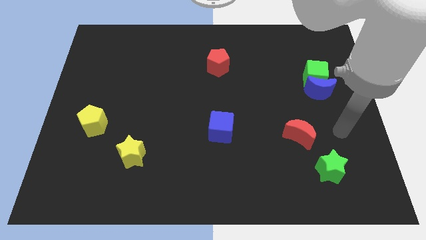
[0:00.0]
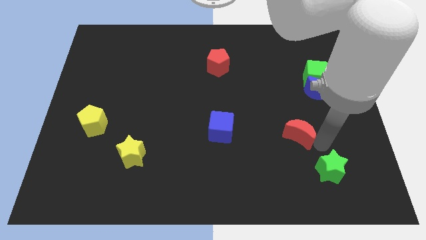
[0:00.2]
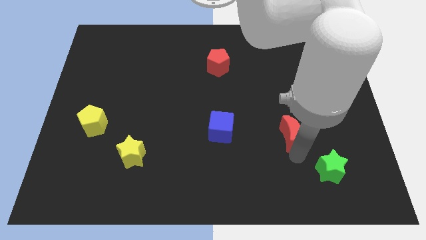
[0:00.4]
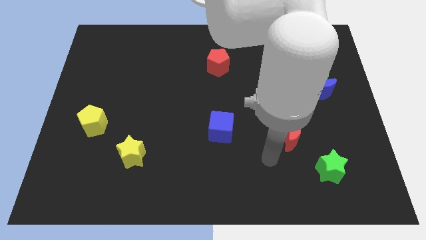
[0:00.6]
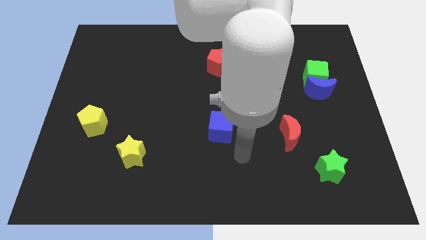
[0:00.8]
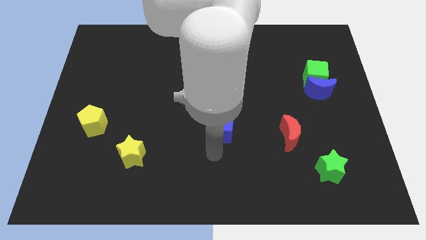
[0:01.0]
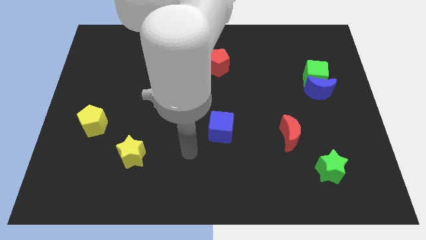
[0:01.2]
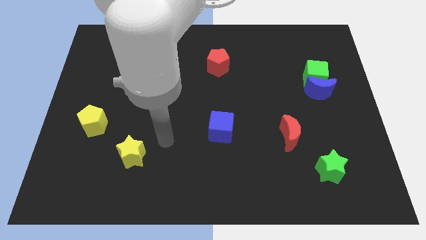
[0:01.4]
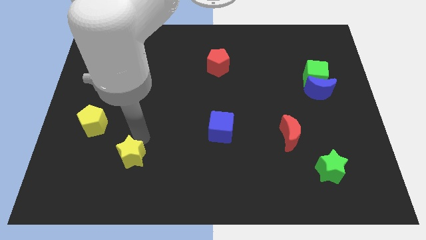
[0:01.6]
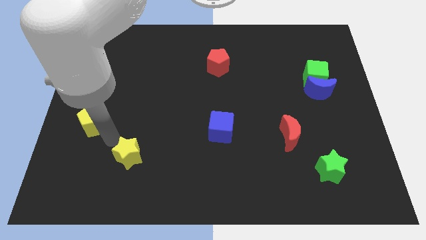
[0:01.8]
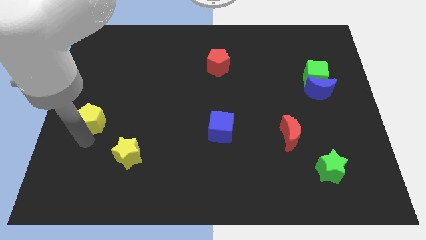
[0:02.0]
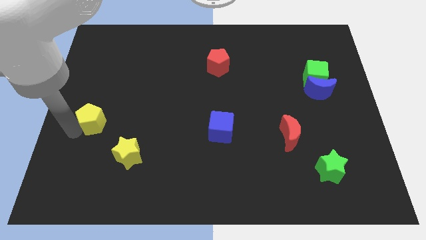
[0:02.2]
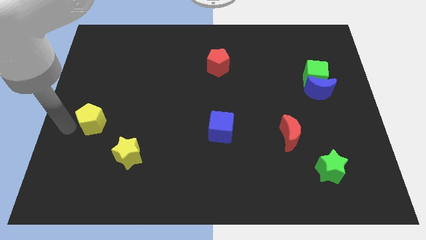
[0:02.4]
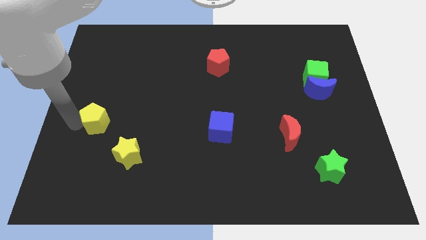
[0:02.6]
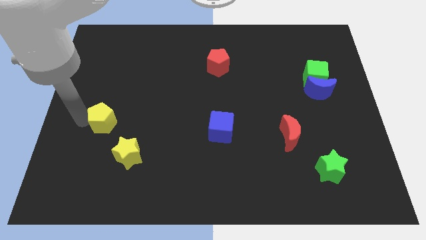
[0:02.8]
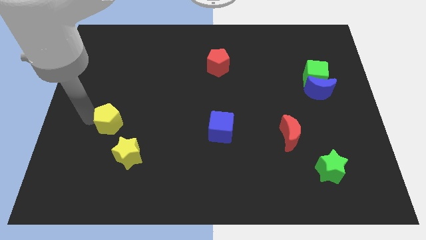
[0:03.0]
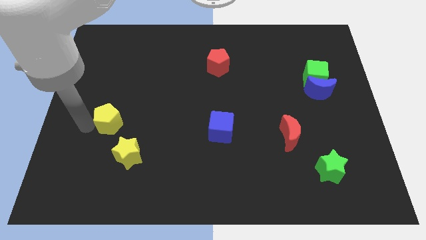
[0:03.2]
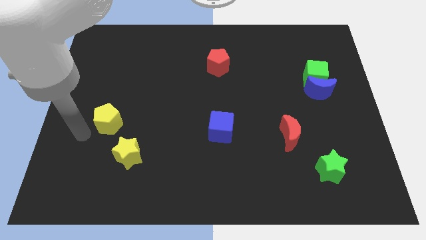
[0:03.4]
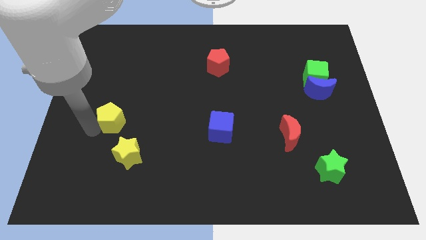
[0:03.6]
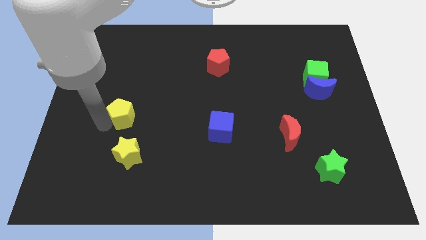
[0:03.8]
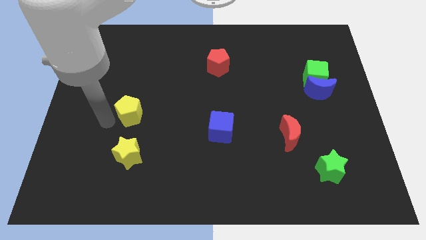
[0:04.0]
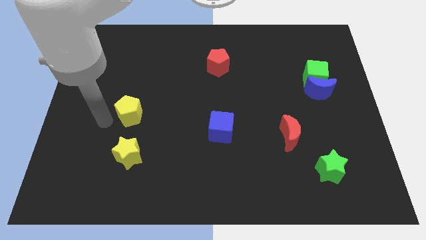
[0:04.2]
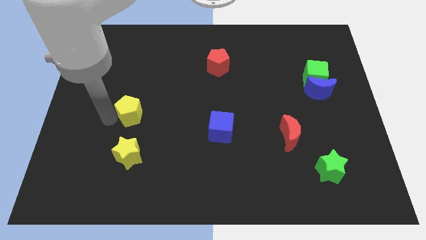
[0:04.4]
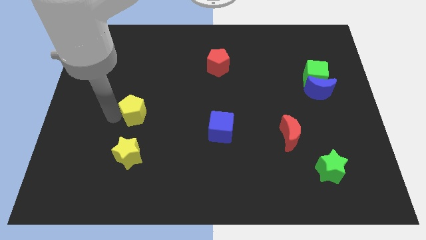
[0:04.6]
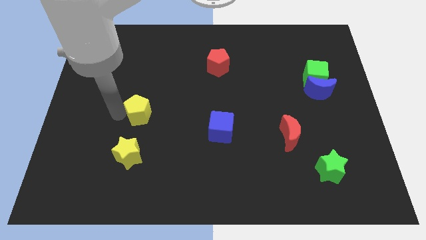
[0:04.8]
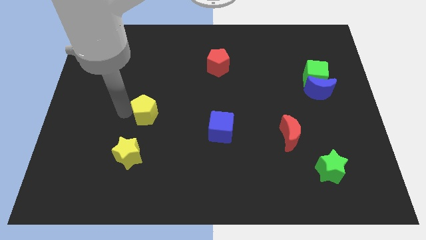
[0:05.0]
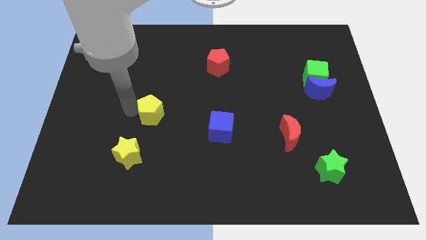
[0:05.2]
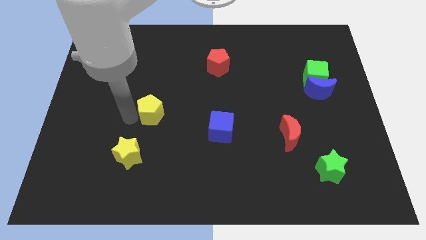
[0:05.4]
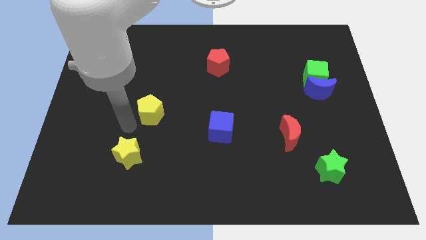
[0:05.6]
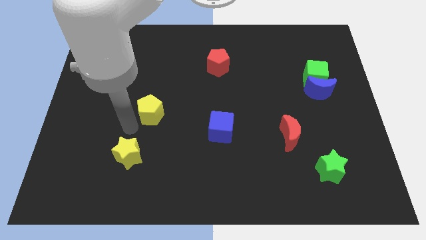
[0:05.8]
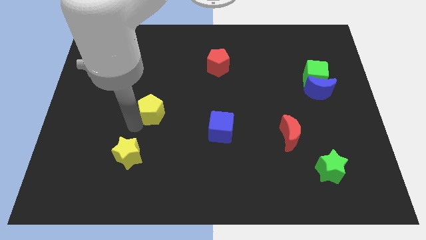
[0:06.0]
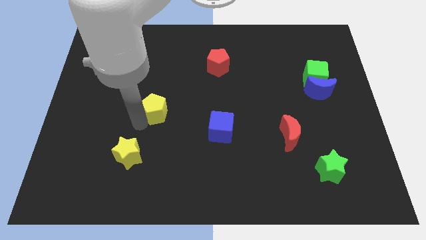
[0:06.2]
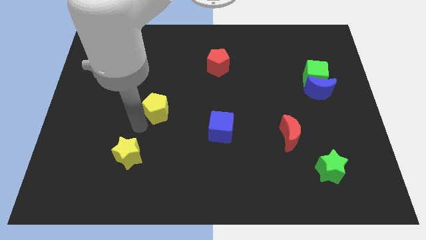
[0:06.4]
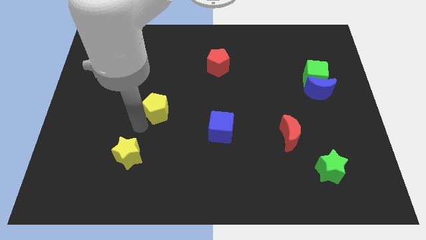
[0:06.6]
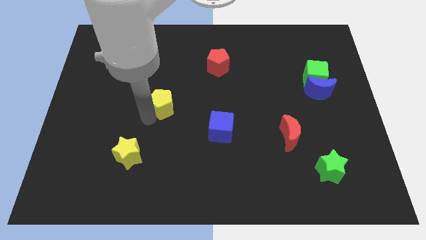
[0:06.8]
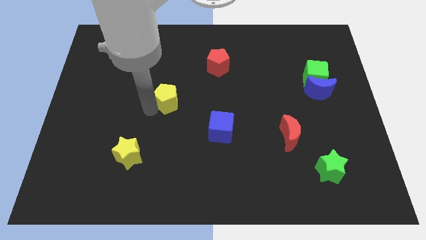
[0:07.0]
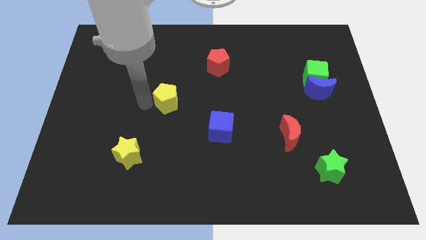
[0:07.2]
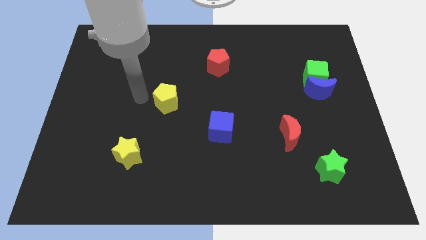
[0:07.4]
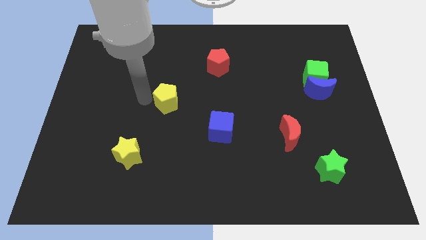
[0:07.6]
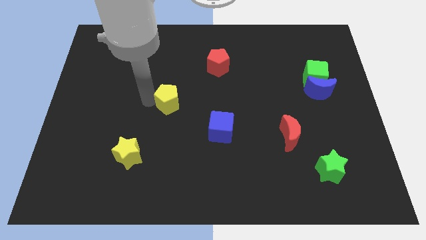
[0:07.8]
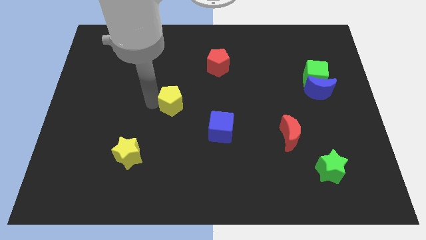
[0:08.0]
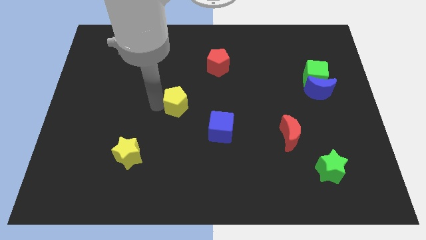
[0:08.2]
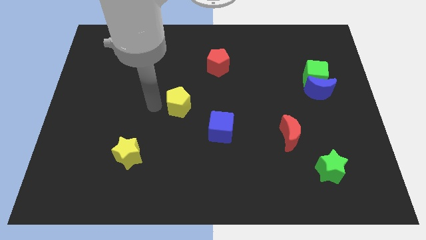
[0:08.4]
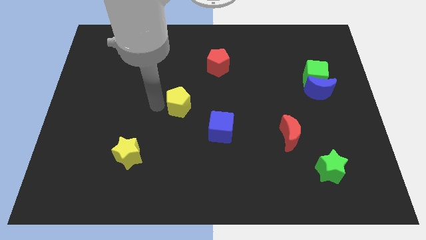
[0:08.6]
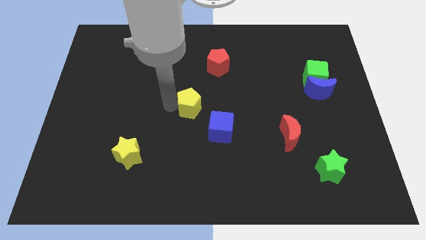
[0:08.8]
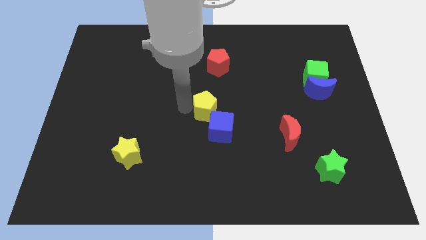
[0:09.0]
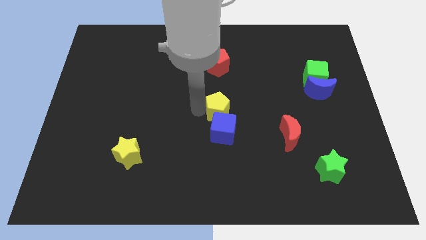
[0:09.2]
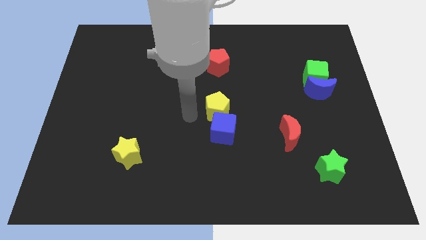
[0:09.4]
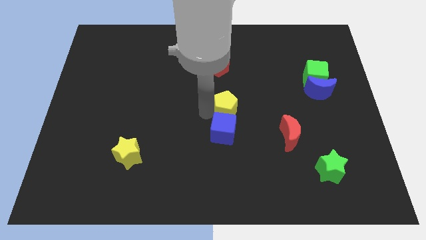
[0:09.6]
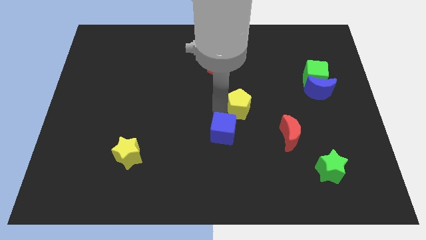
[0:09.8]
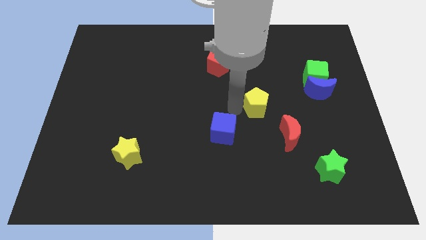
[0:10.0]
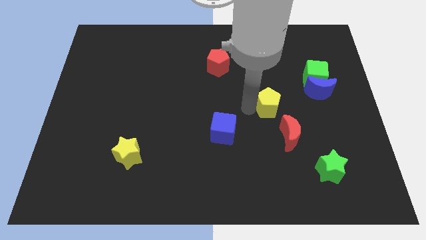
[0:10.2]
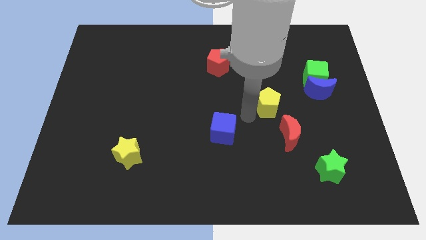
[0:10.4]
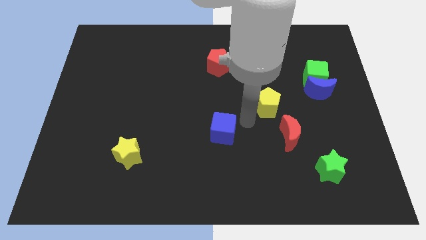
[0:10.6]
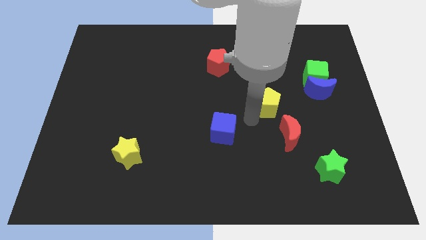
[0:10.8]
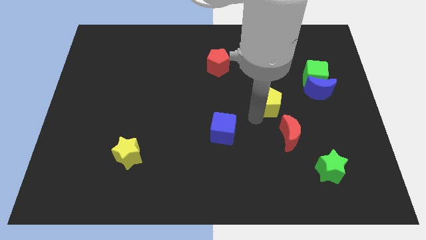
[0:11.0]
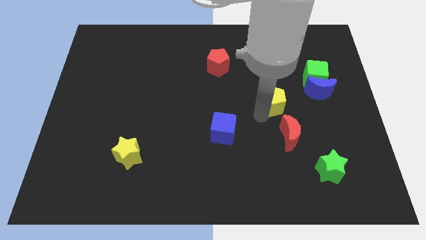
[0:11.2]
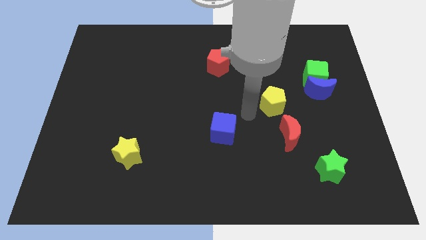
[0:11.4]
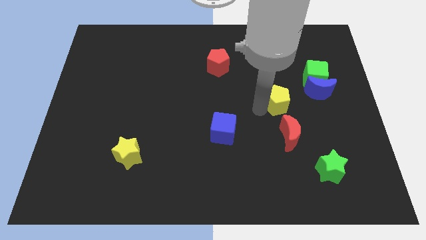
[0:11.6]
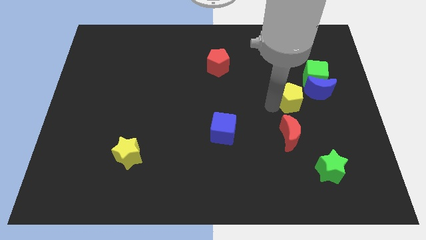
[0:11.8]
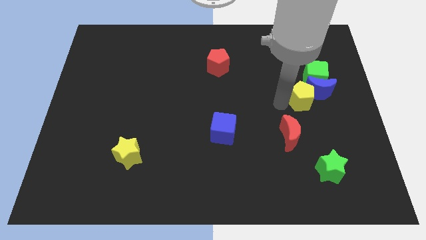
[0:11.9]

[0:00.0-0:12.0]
push the yellow pentagon next to the blue moon

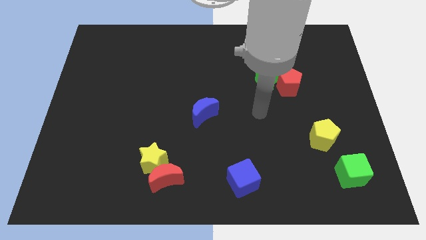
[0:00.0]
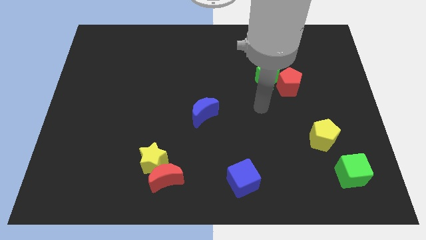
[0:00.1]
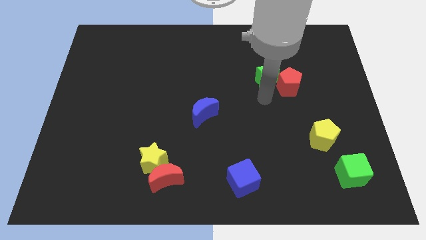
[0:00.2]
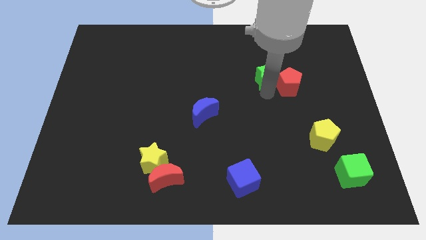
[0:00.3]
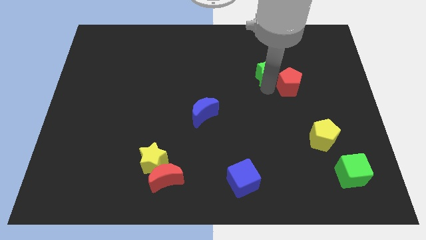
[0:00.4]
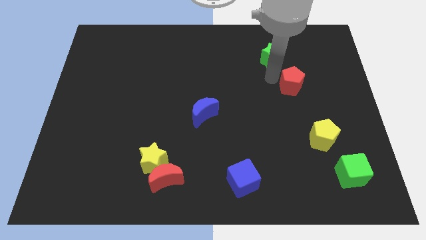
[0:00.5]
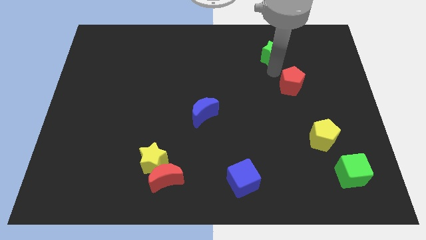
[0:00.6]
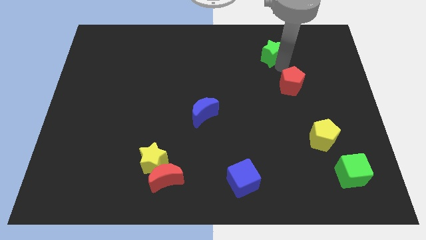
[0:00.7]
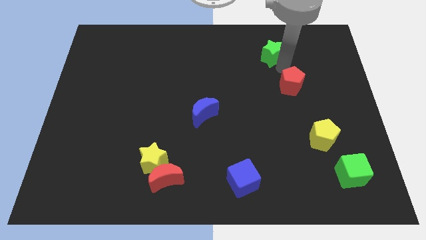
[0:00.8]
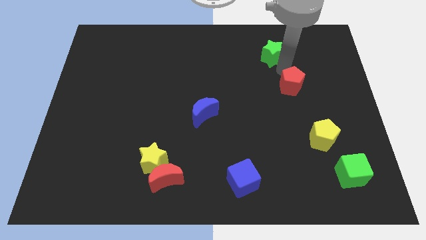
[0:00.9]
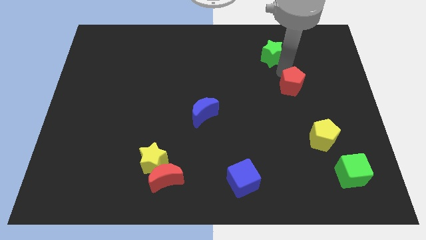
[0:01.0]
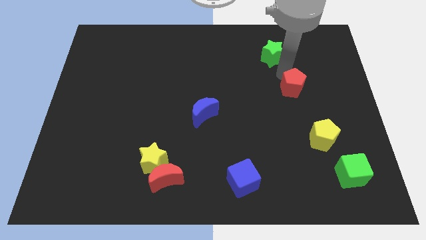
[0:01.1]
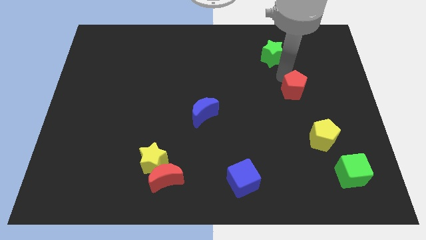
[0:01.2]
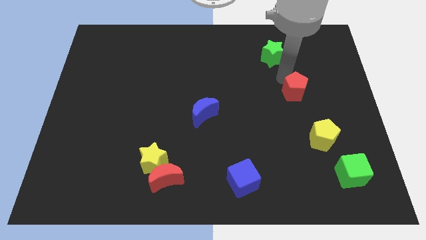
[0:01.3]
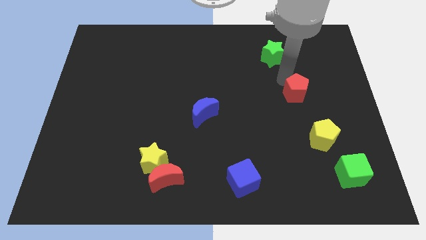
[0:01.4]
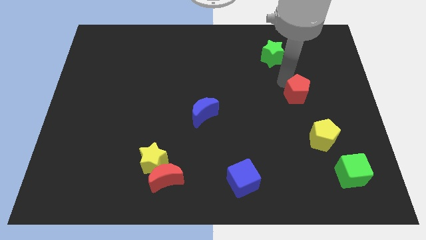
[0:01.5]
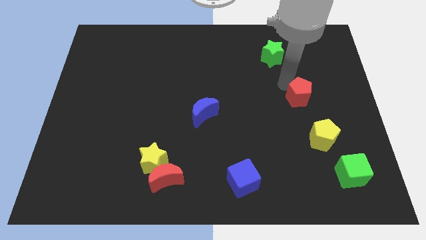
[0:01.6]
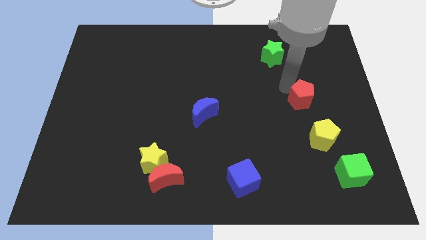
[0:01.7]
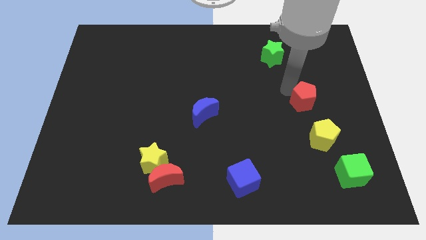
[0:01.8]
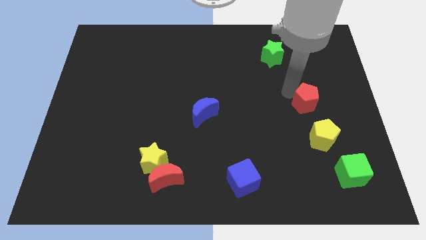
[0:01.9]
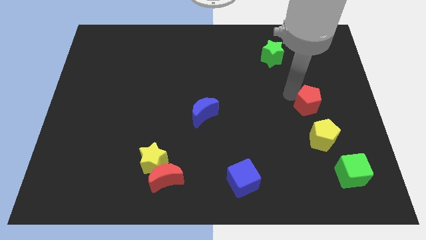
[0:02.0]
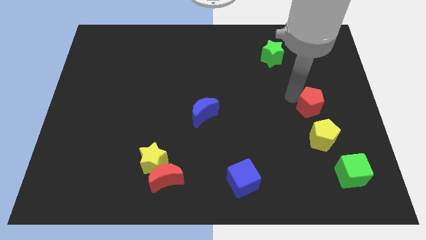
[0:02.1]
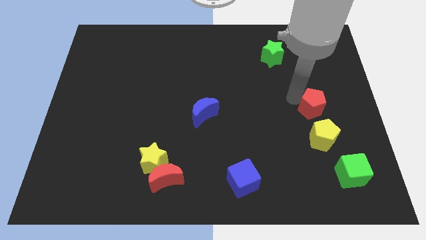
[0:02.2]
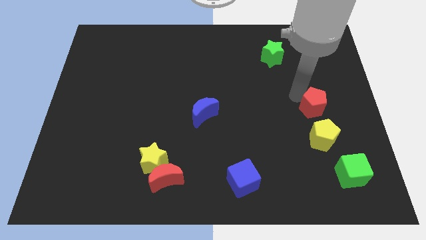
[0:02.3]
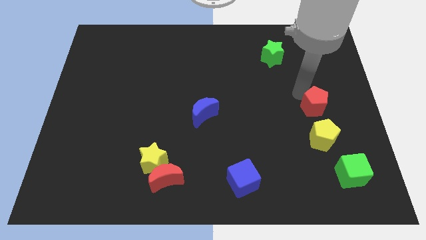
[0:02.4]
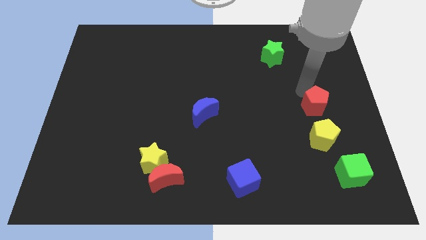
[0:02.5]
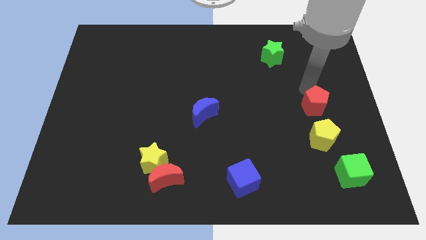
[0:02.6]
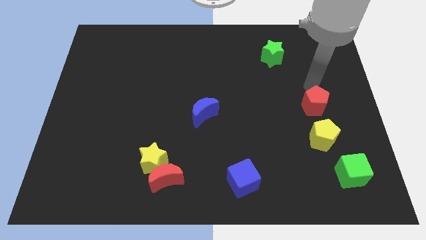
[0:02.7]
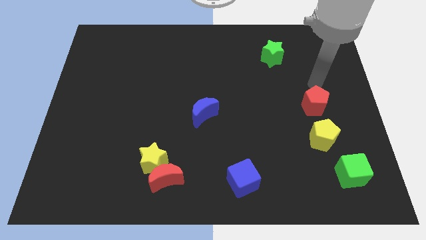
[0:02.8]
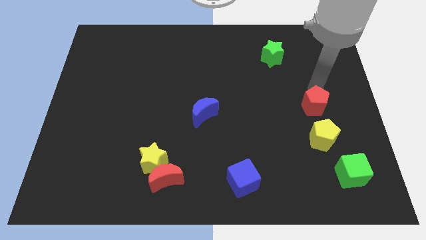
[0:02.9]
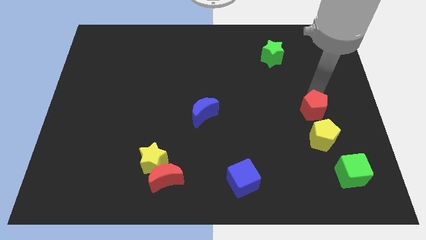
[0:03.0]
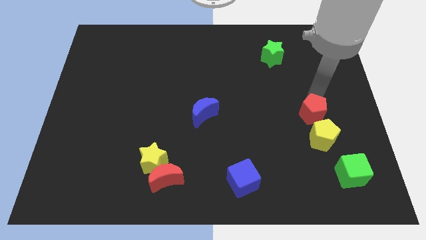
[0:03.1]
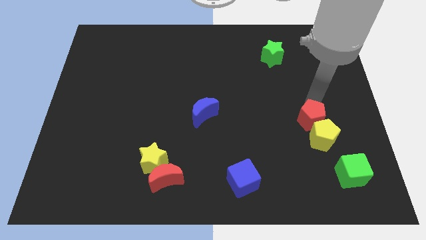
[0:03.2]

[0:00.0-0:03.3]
slide the red pentagon to the yellow pentagon
